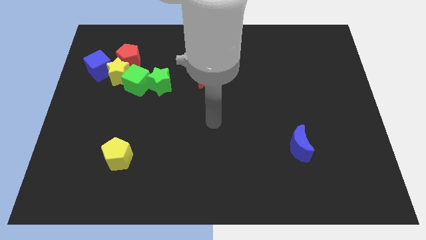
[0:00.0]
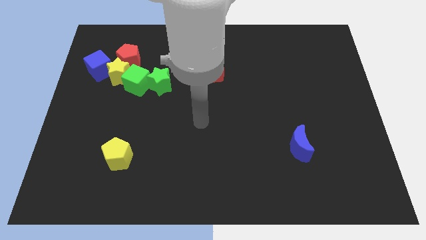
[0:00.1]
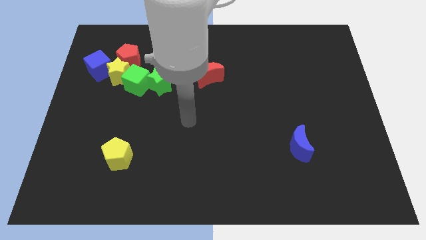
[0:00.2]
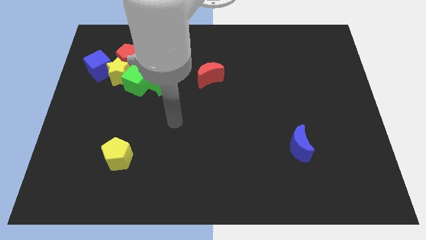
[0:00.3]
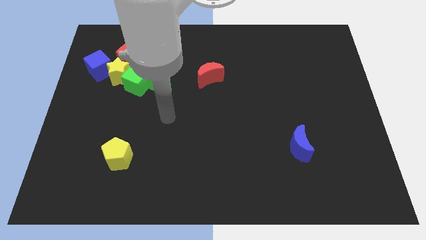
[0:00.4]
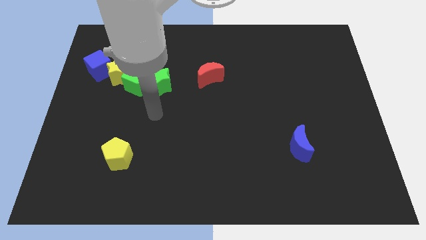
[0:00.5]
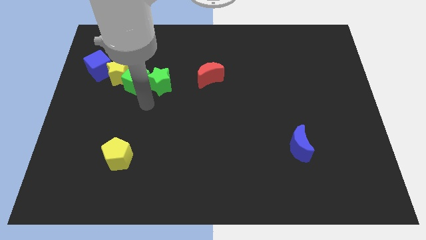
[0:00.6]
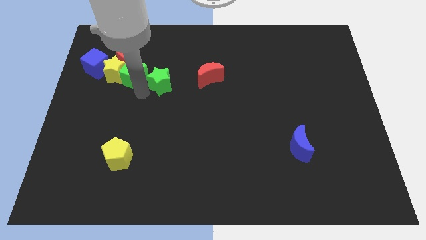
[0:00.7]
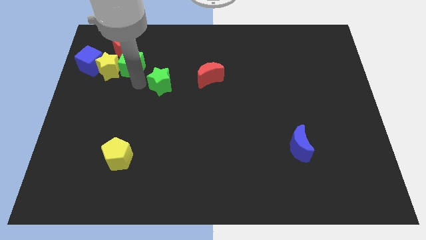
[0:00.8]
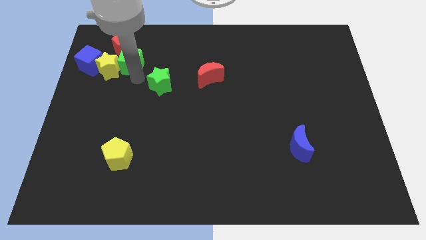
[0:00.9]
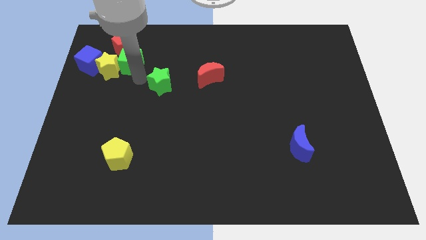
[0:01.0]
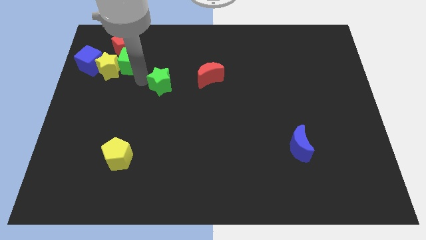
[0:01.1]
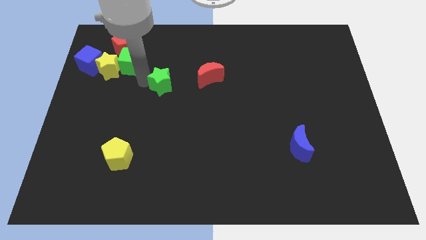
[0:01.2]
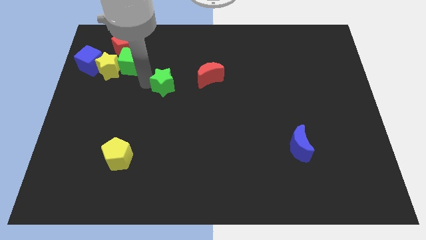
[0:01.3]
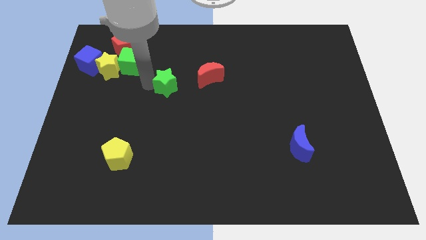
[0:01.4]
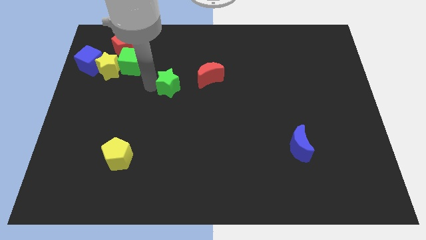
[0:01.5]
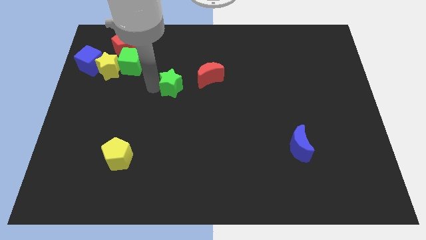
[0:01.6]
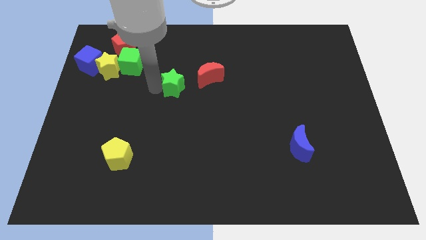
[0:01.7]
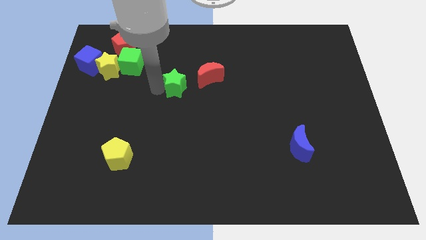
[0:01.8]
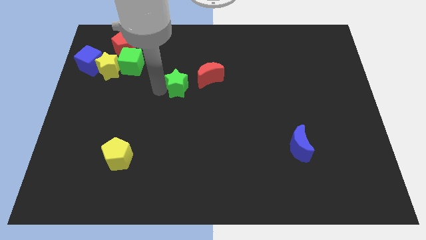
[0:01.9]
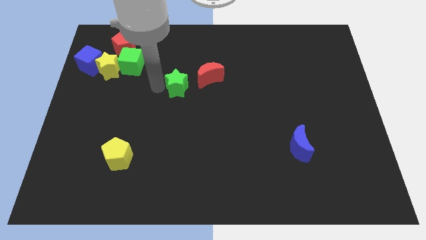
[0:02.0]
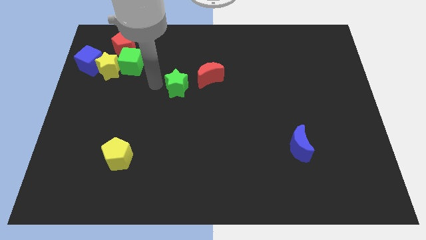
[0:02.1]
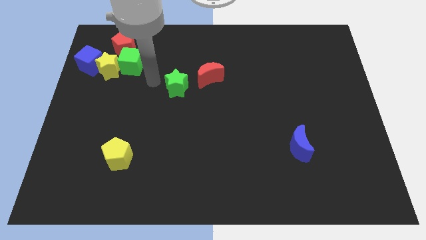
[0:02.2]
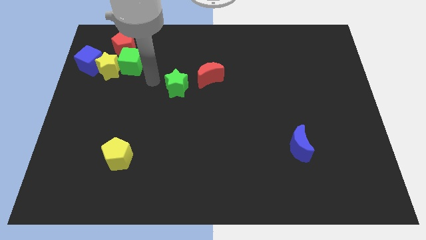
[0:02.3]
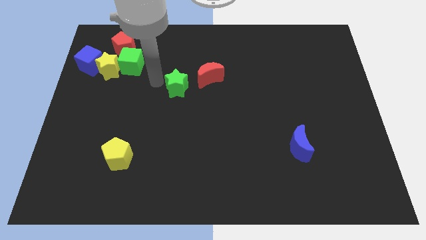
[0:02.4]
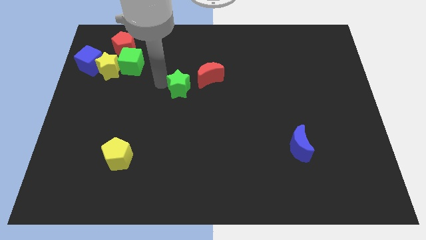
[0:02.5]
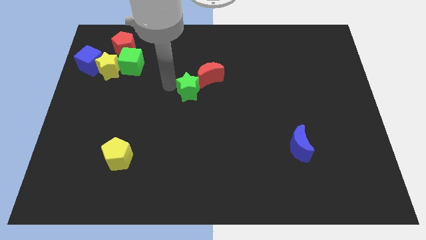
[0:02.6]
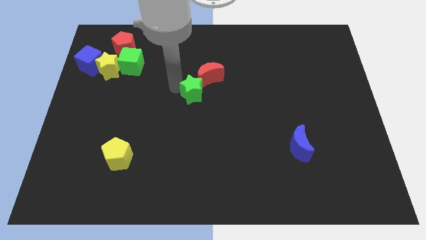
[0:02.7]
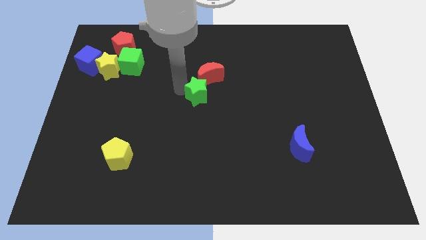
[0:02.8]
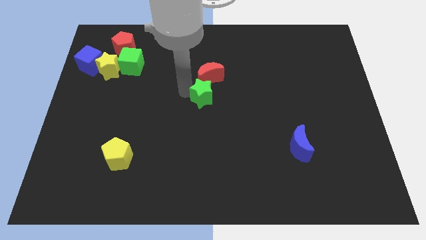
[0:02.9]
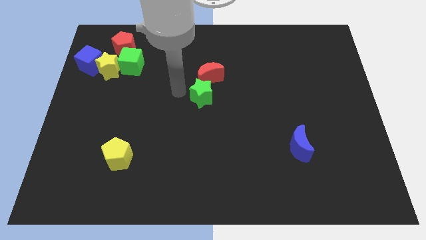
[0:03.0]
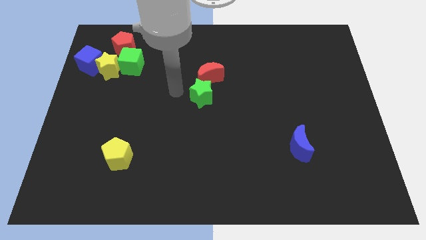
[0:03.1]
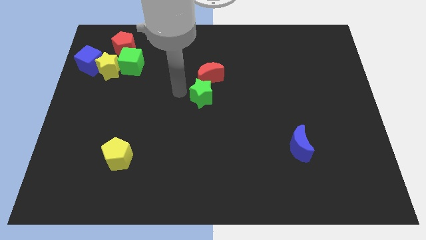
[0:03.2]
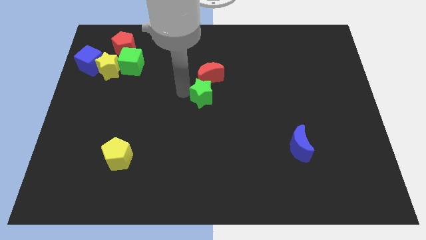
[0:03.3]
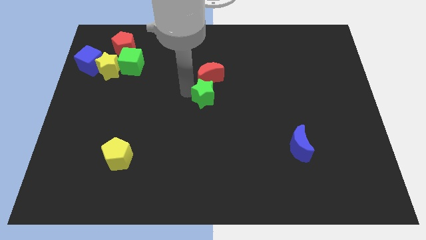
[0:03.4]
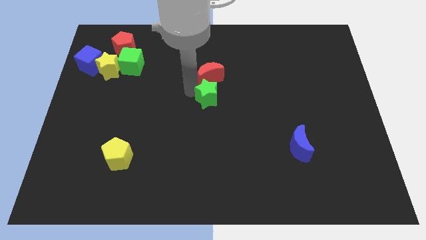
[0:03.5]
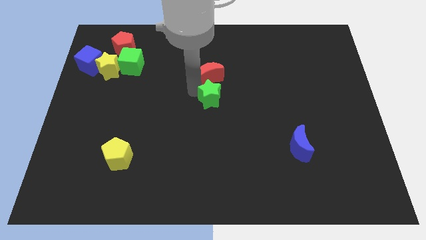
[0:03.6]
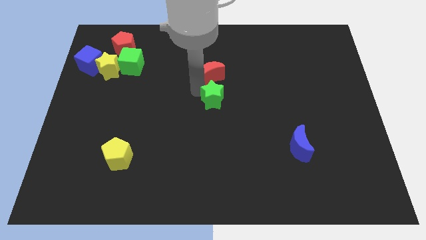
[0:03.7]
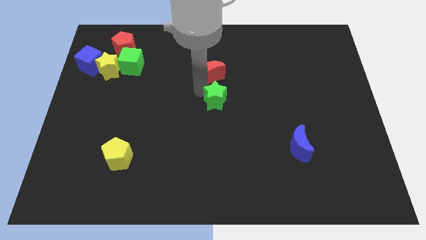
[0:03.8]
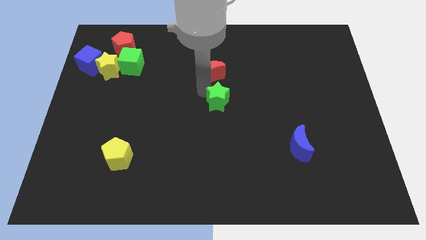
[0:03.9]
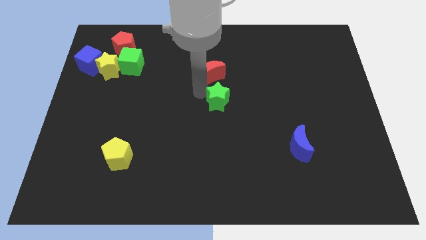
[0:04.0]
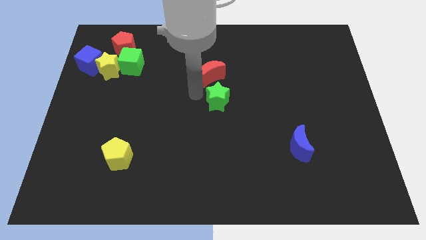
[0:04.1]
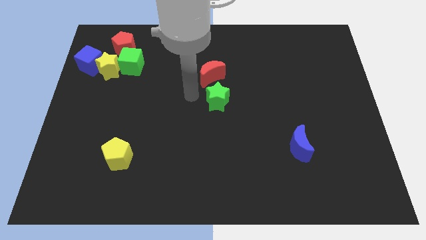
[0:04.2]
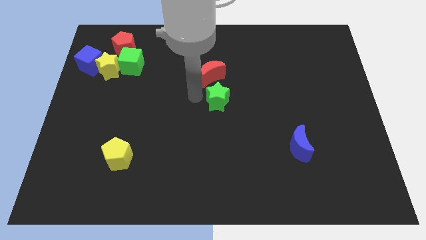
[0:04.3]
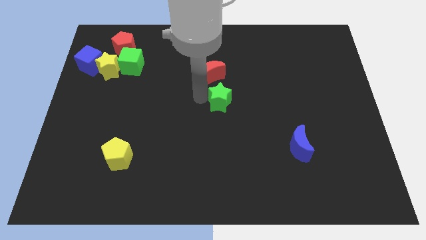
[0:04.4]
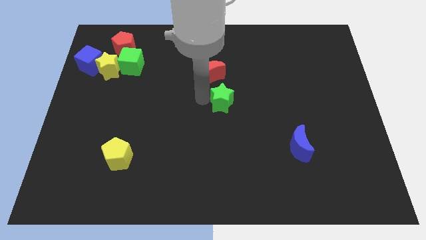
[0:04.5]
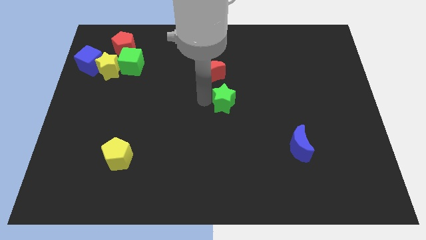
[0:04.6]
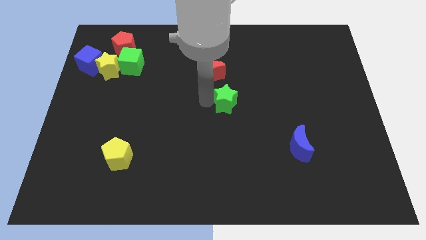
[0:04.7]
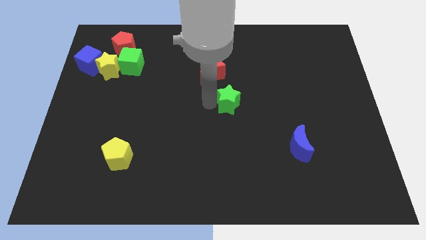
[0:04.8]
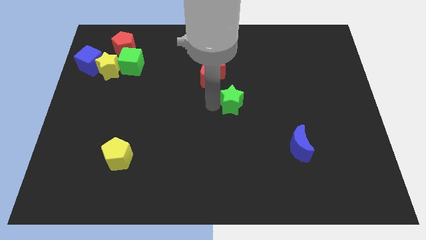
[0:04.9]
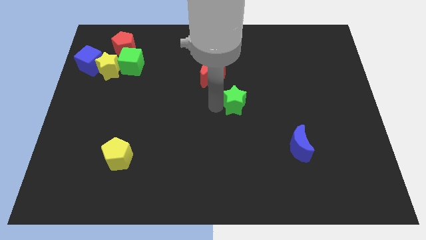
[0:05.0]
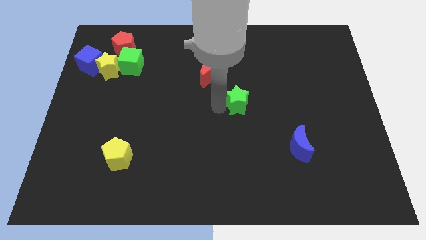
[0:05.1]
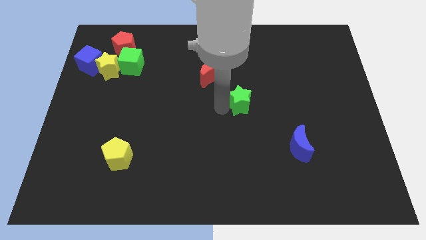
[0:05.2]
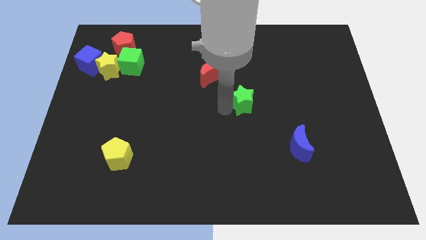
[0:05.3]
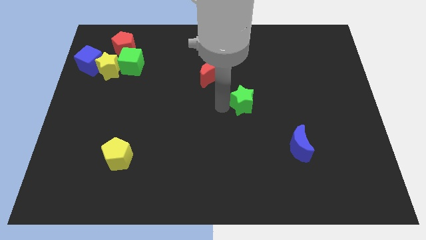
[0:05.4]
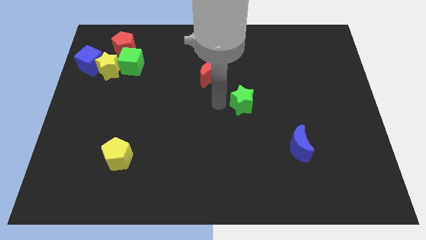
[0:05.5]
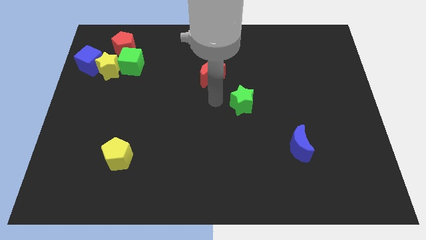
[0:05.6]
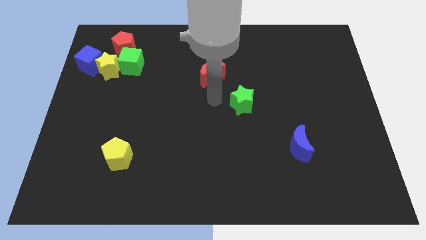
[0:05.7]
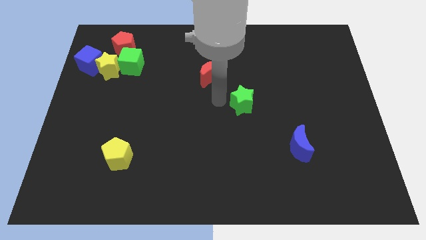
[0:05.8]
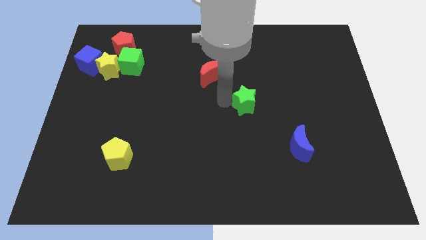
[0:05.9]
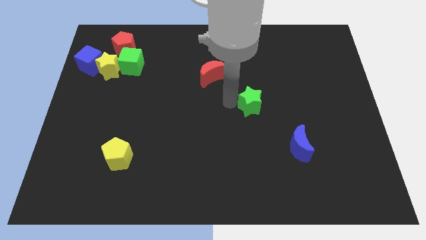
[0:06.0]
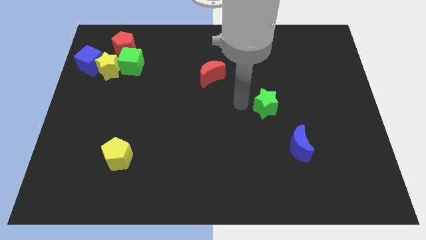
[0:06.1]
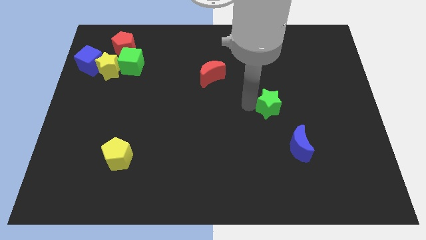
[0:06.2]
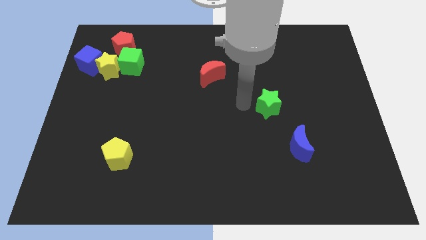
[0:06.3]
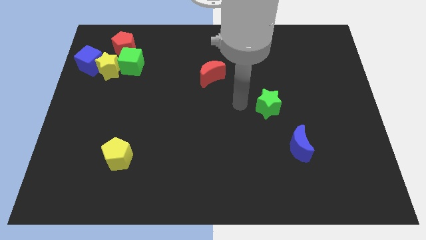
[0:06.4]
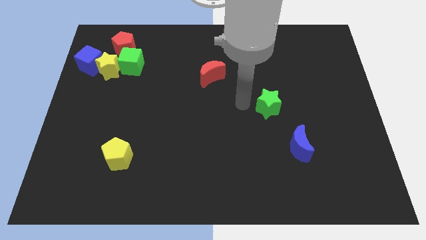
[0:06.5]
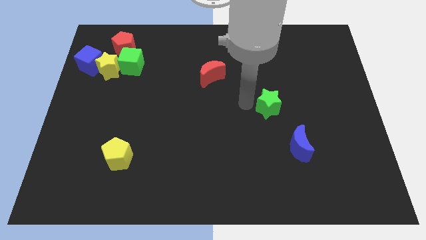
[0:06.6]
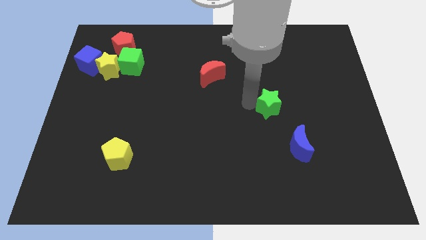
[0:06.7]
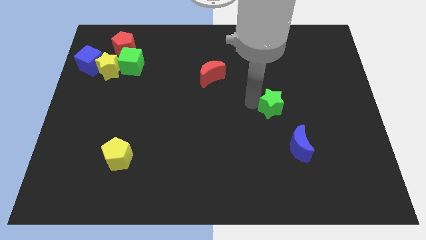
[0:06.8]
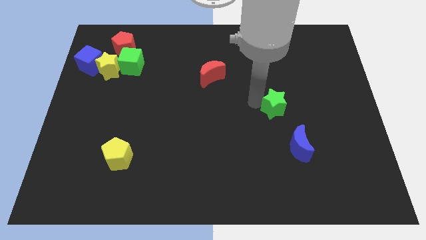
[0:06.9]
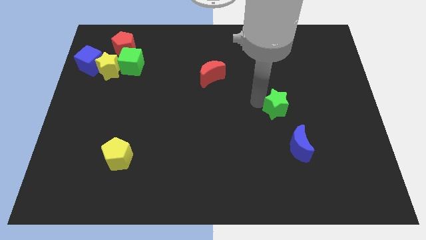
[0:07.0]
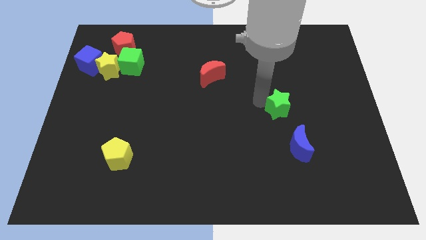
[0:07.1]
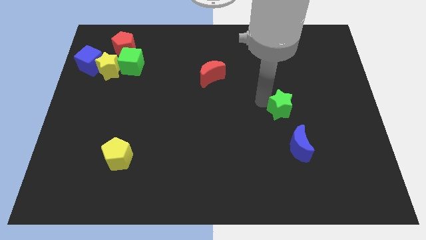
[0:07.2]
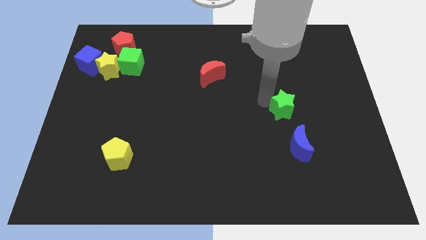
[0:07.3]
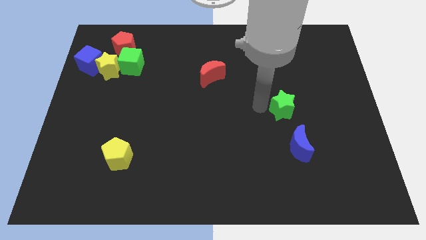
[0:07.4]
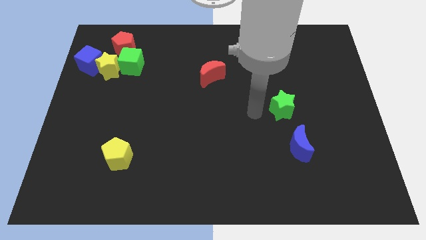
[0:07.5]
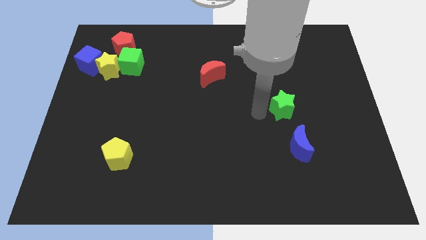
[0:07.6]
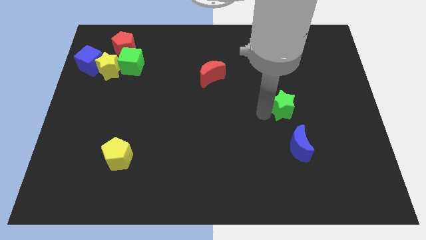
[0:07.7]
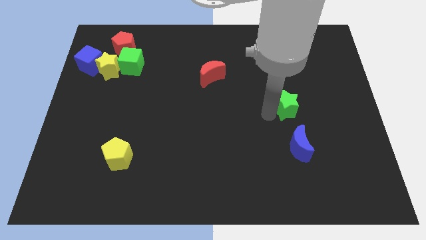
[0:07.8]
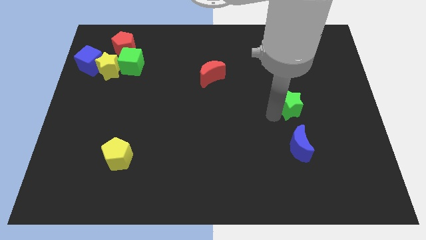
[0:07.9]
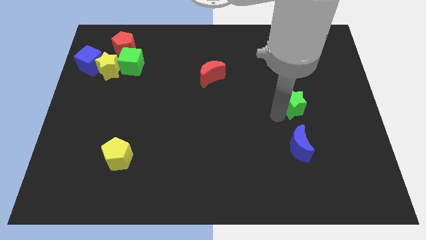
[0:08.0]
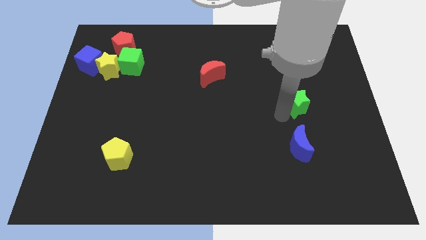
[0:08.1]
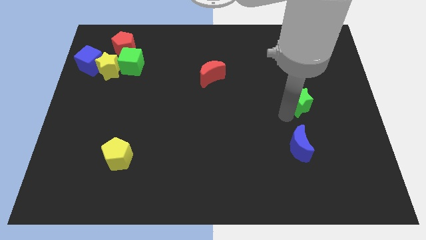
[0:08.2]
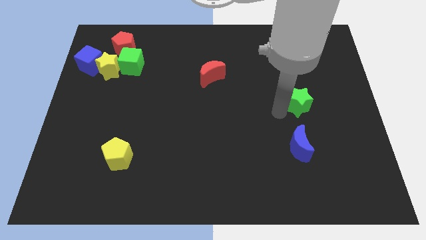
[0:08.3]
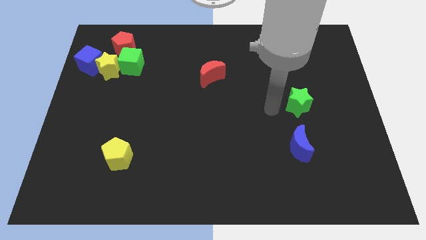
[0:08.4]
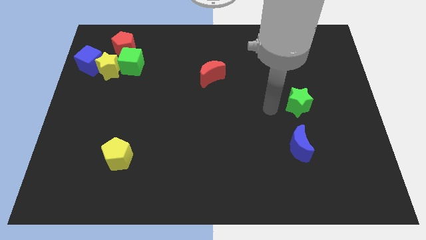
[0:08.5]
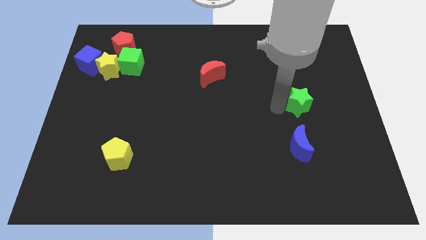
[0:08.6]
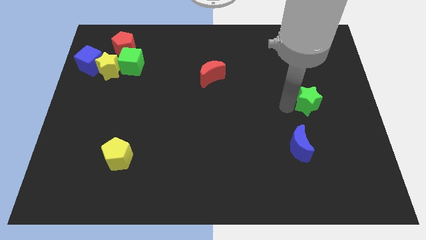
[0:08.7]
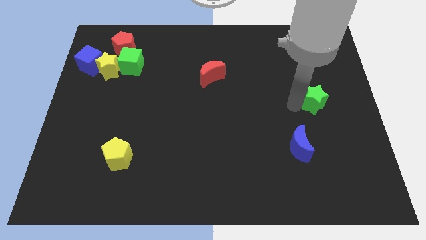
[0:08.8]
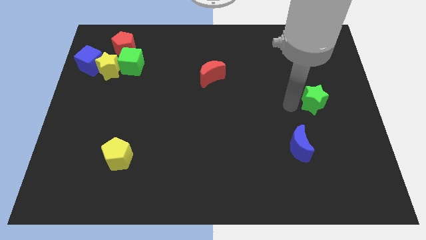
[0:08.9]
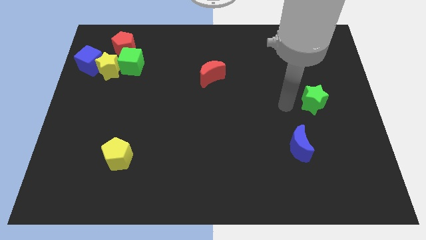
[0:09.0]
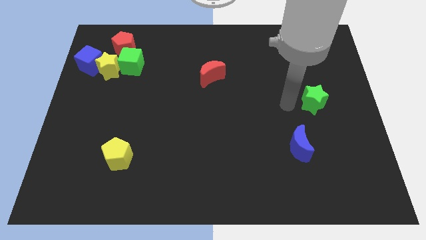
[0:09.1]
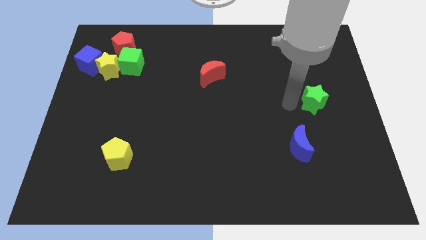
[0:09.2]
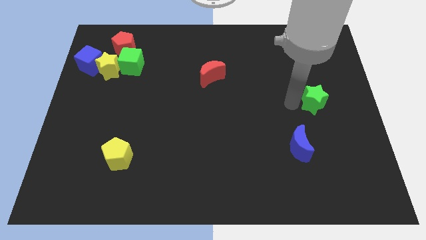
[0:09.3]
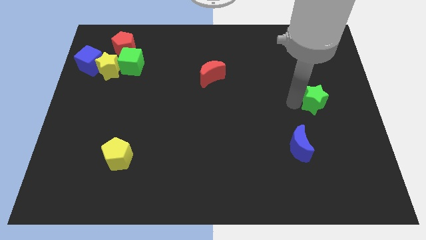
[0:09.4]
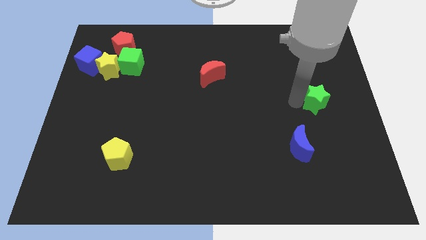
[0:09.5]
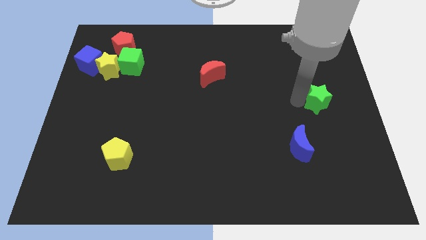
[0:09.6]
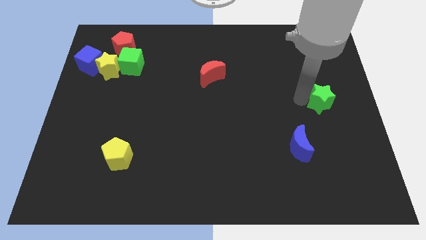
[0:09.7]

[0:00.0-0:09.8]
put the green star to the right side of the board
